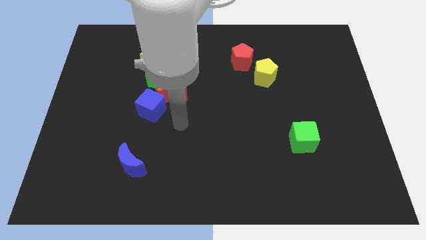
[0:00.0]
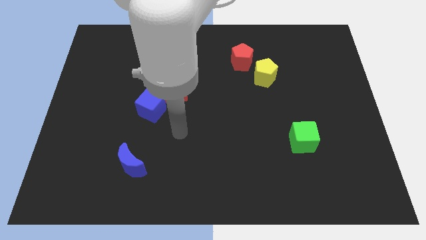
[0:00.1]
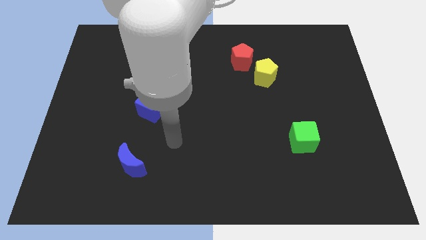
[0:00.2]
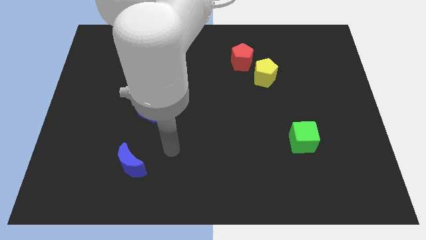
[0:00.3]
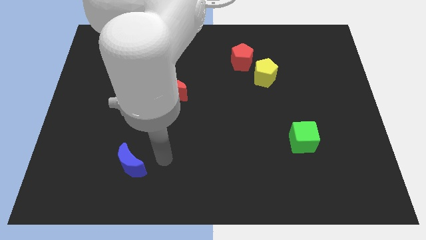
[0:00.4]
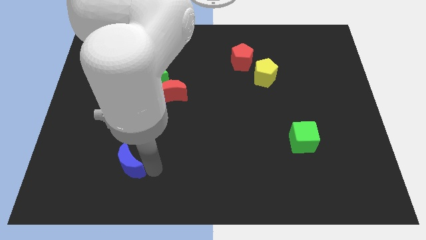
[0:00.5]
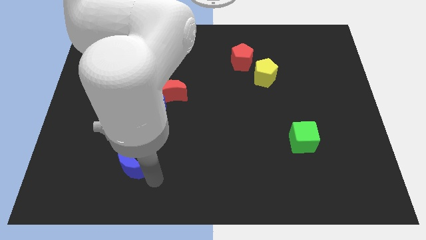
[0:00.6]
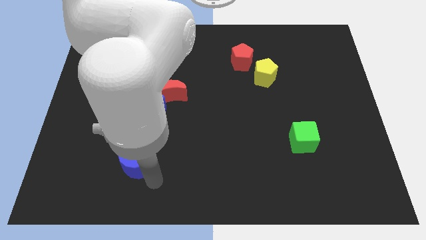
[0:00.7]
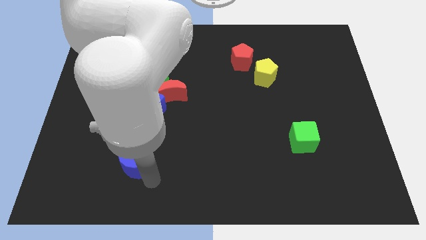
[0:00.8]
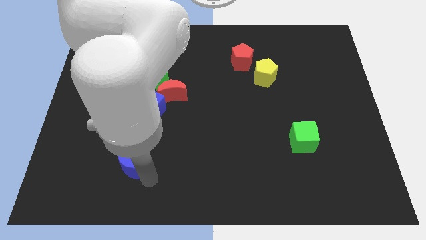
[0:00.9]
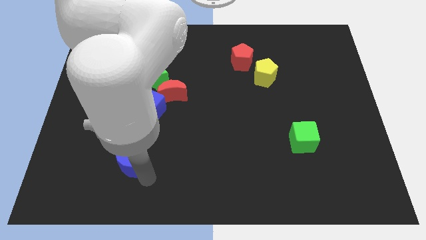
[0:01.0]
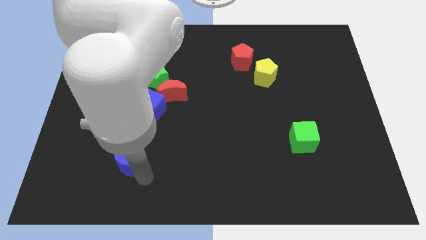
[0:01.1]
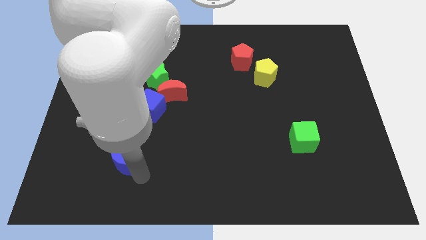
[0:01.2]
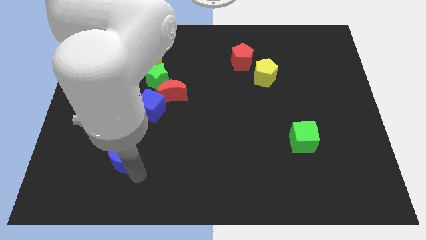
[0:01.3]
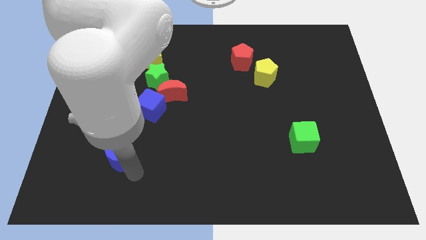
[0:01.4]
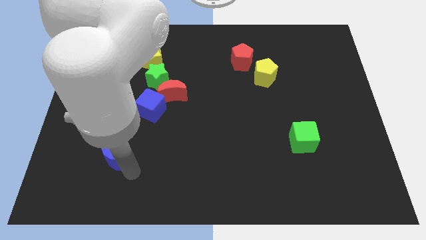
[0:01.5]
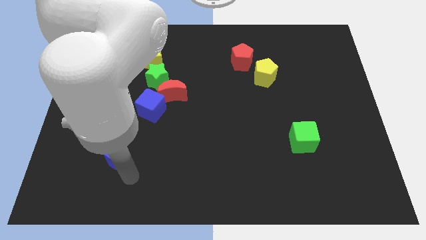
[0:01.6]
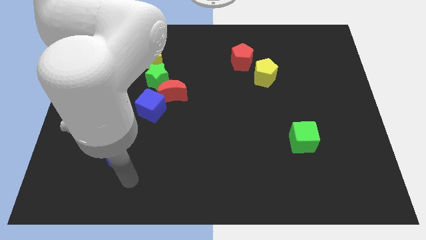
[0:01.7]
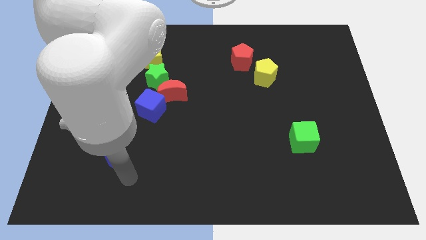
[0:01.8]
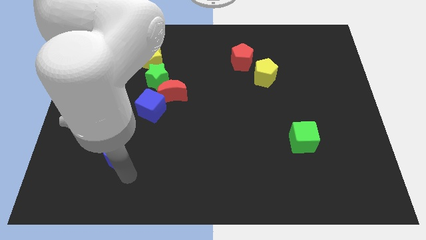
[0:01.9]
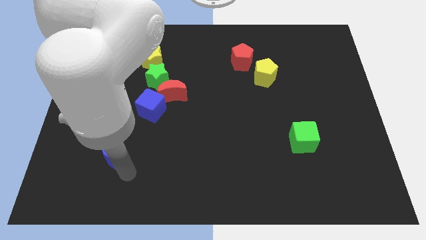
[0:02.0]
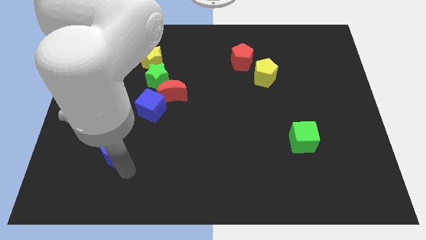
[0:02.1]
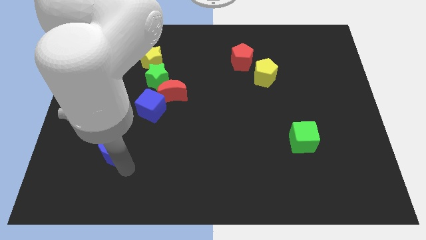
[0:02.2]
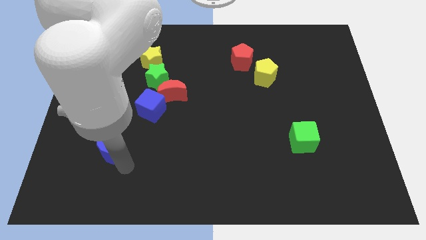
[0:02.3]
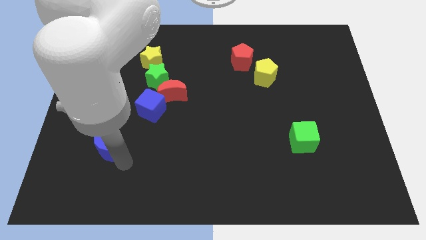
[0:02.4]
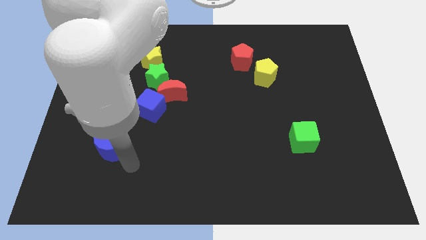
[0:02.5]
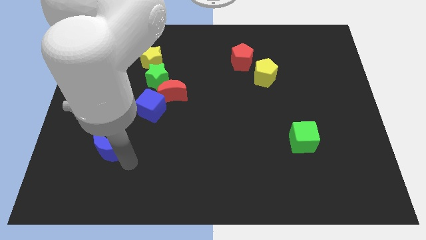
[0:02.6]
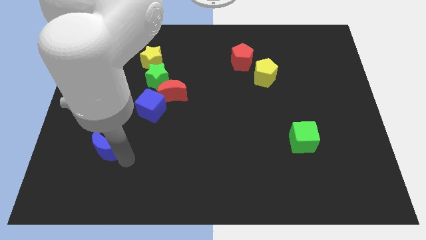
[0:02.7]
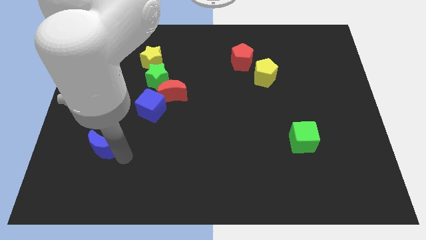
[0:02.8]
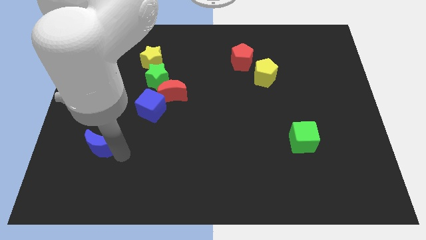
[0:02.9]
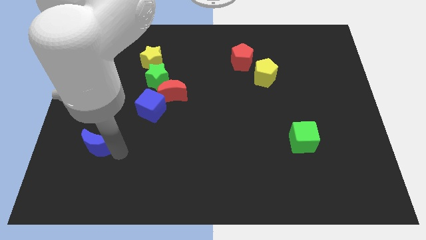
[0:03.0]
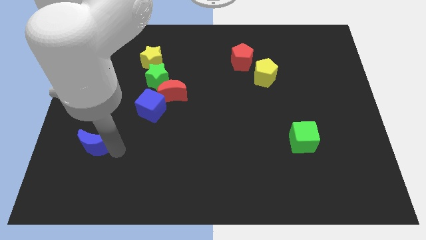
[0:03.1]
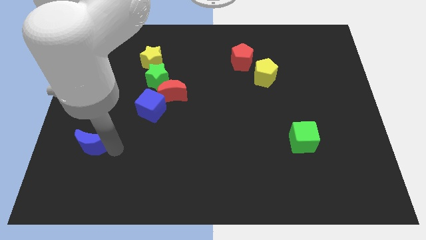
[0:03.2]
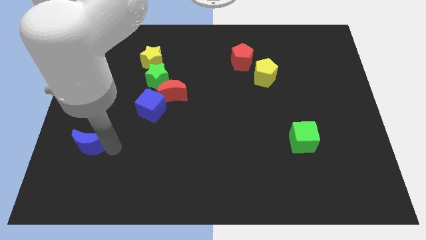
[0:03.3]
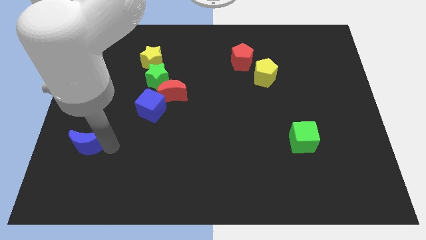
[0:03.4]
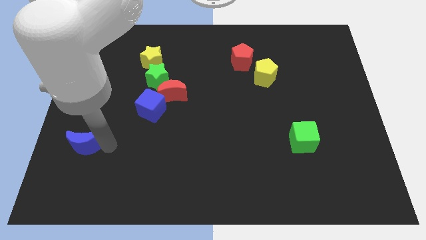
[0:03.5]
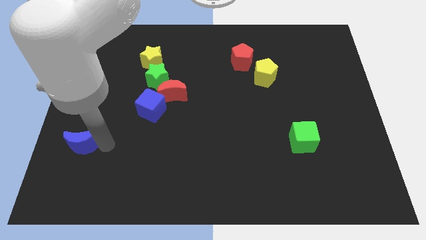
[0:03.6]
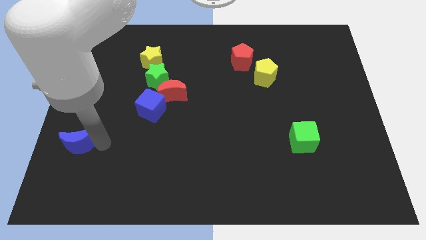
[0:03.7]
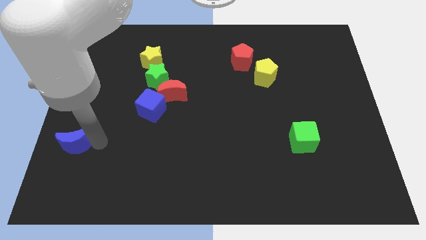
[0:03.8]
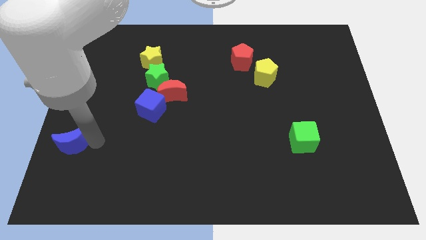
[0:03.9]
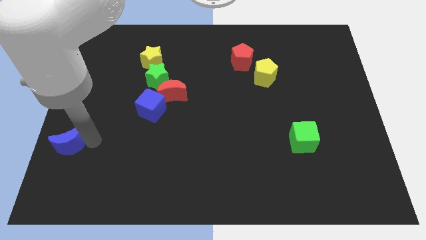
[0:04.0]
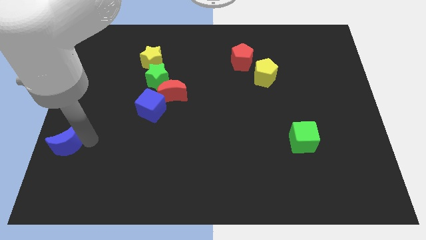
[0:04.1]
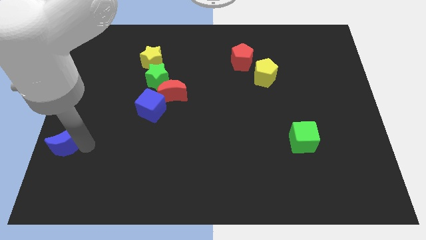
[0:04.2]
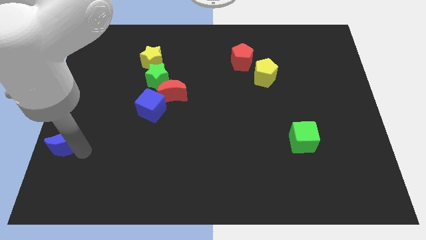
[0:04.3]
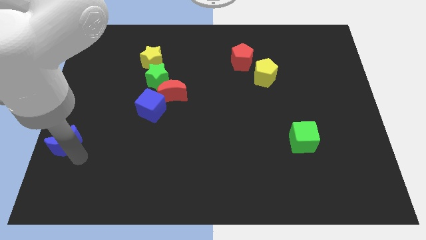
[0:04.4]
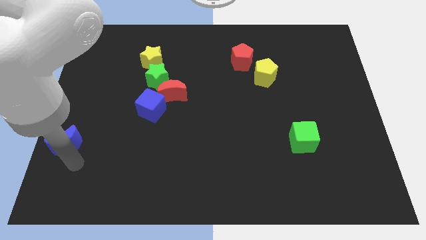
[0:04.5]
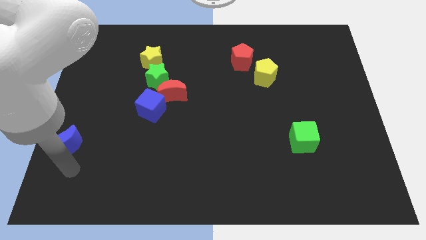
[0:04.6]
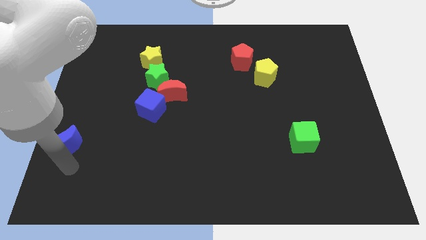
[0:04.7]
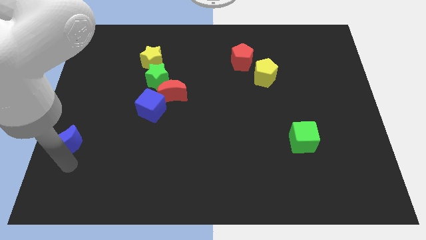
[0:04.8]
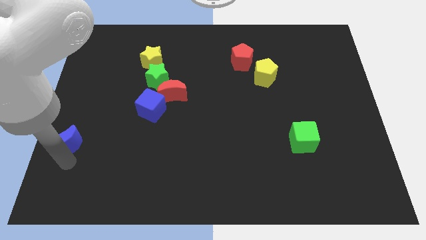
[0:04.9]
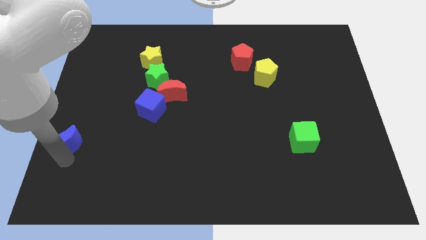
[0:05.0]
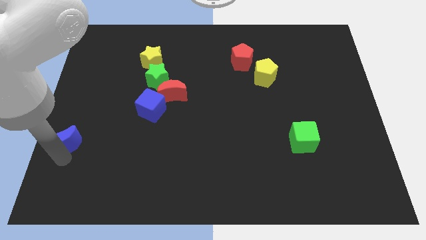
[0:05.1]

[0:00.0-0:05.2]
push the blue moon to the left side of the board
